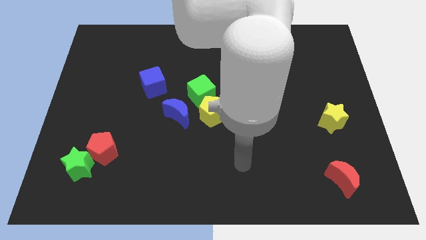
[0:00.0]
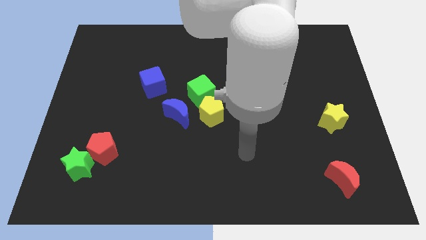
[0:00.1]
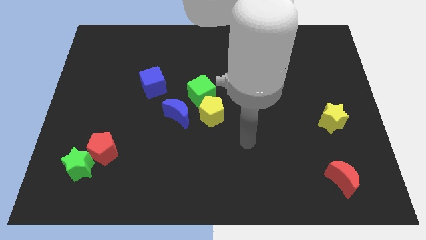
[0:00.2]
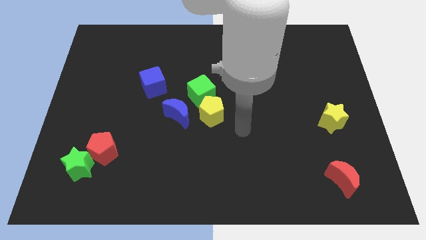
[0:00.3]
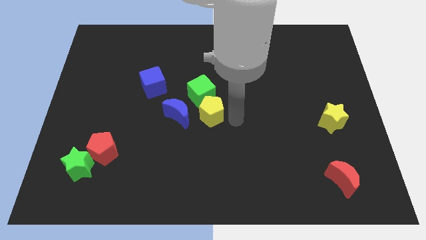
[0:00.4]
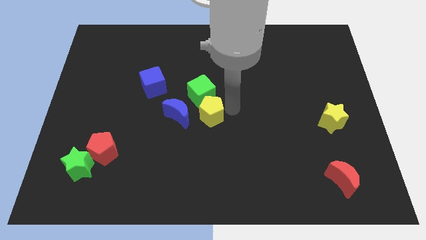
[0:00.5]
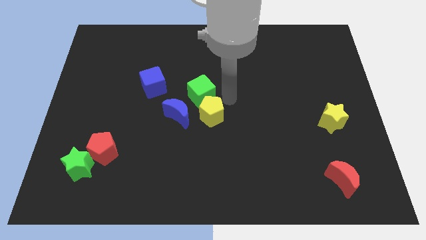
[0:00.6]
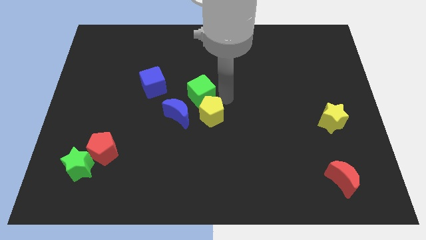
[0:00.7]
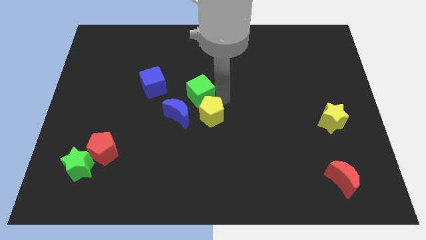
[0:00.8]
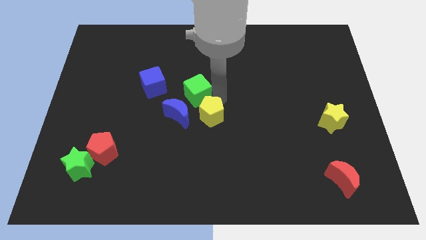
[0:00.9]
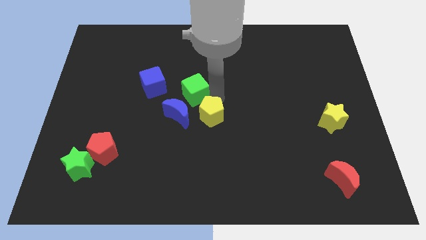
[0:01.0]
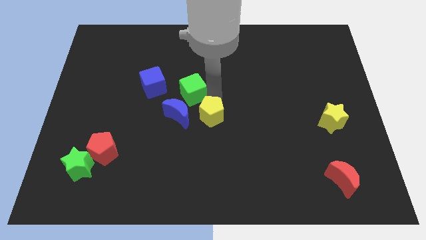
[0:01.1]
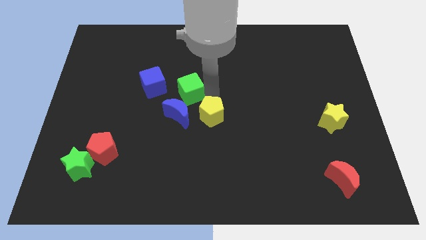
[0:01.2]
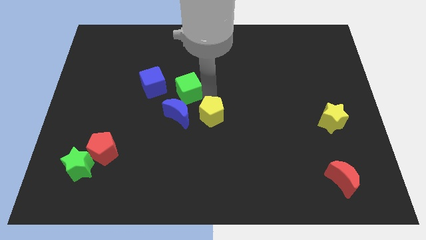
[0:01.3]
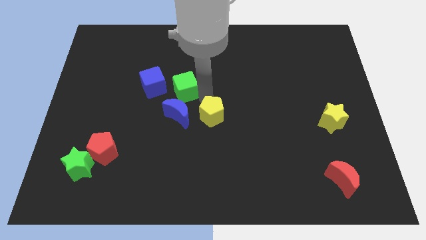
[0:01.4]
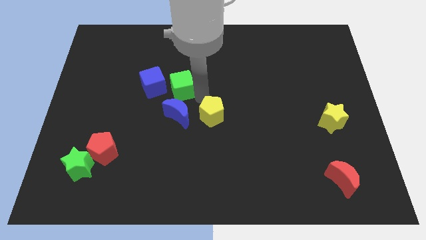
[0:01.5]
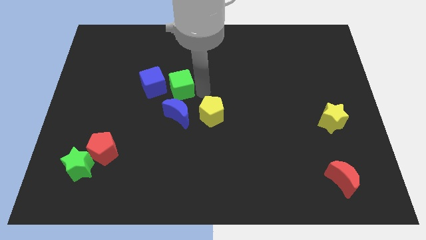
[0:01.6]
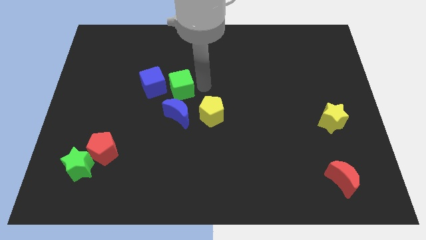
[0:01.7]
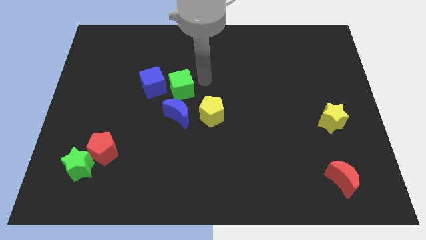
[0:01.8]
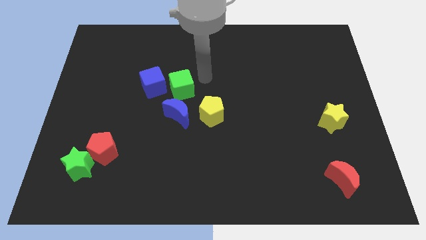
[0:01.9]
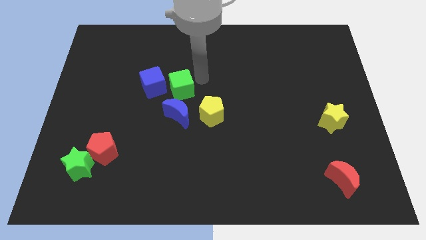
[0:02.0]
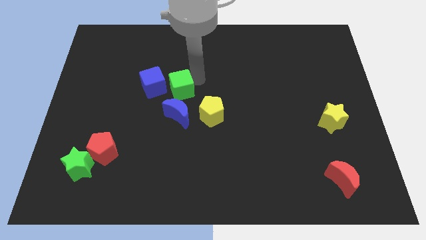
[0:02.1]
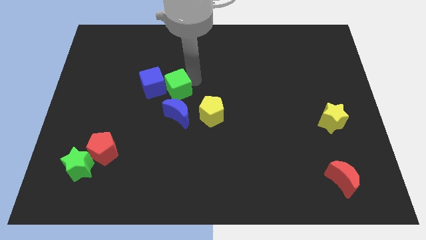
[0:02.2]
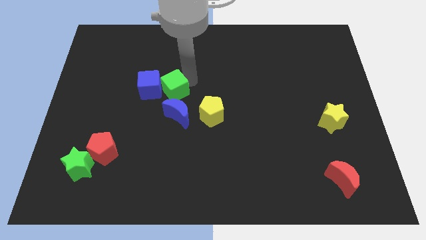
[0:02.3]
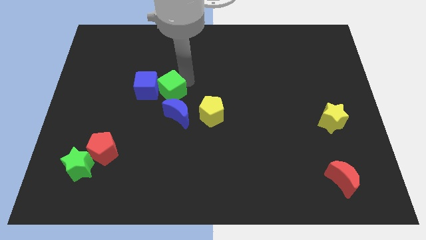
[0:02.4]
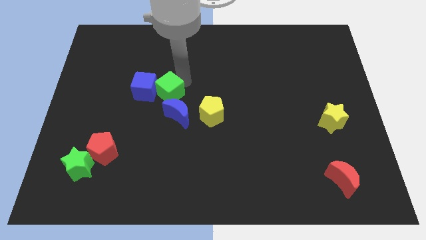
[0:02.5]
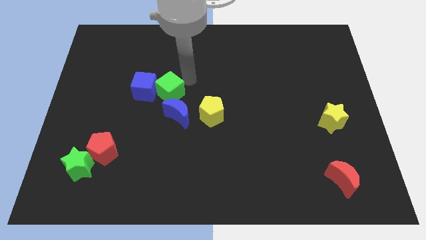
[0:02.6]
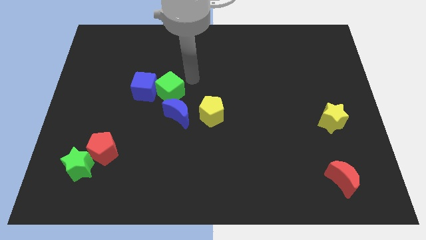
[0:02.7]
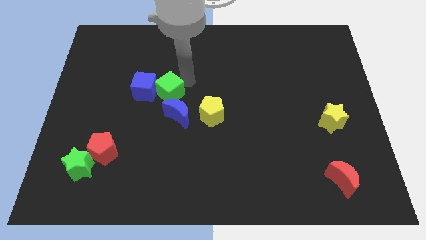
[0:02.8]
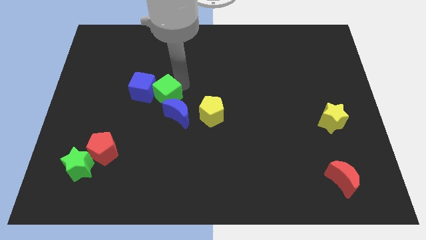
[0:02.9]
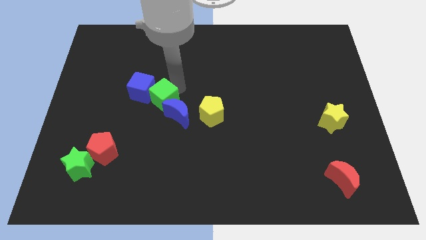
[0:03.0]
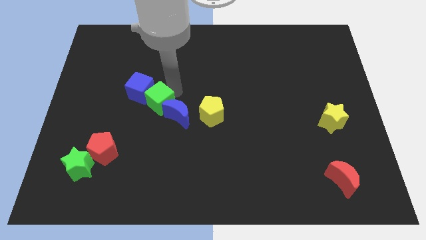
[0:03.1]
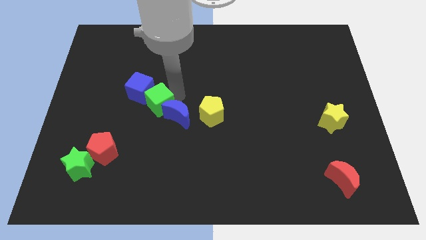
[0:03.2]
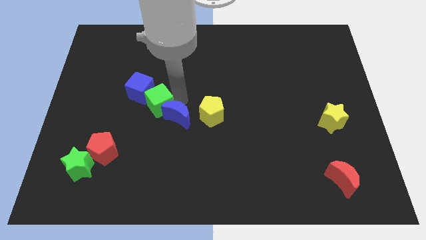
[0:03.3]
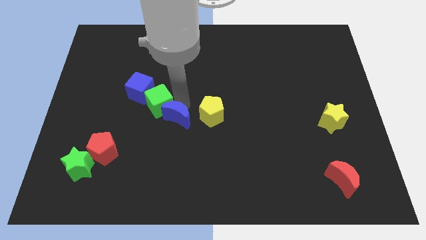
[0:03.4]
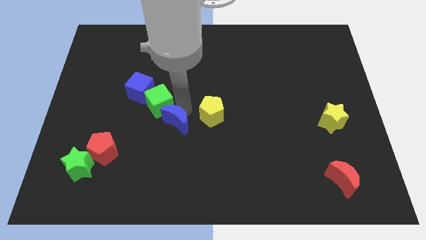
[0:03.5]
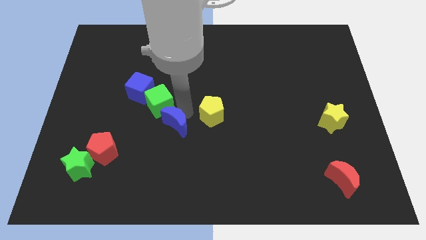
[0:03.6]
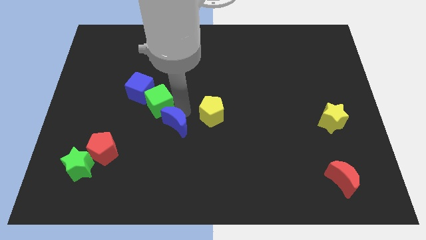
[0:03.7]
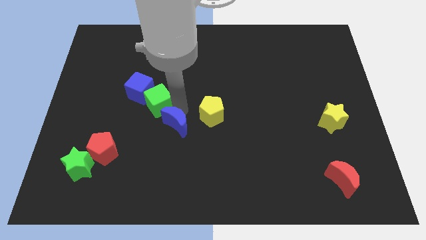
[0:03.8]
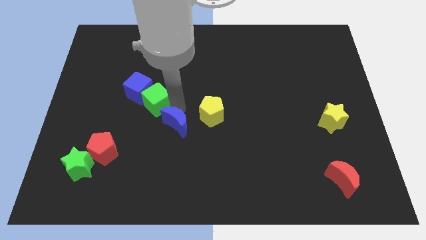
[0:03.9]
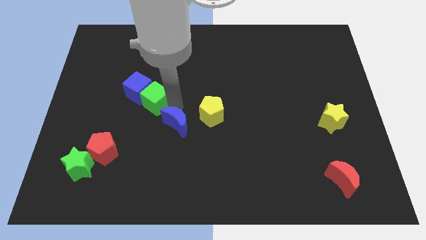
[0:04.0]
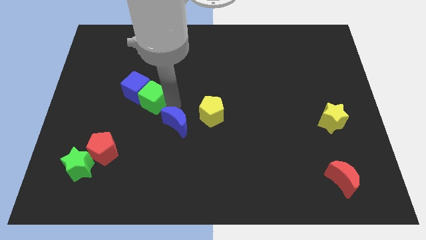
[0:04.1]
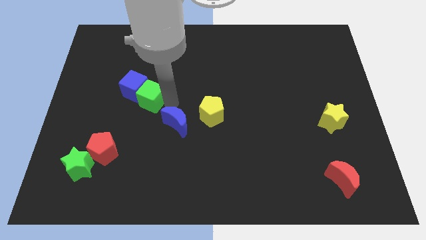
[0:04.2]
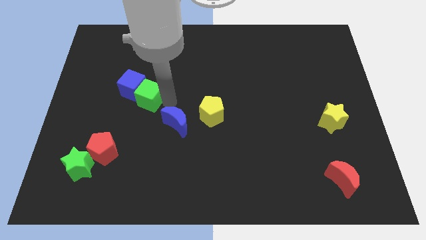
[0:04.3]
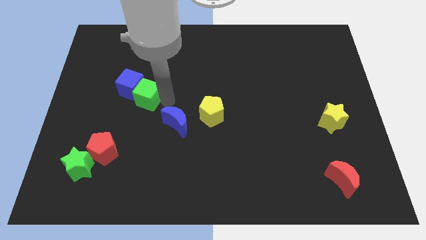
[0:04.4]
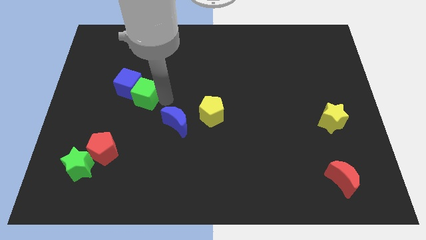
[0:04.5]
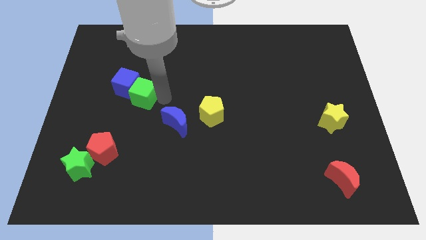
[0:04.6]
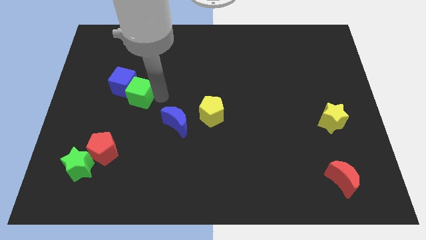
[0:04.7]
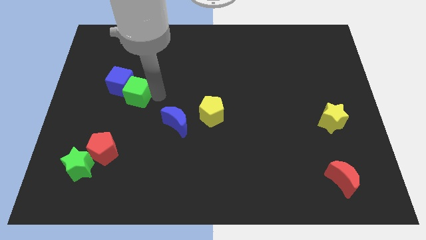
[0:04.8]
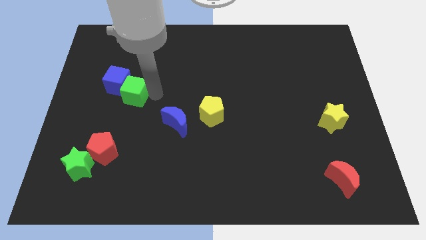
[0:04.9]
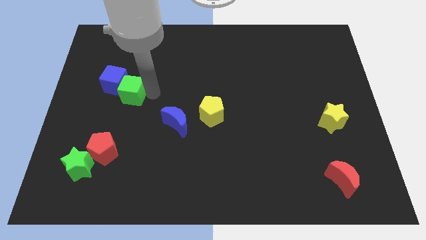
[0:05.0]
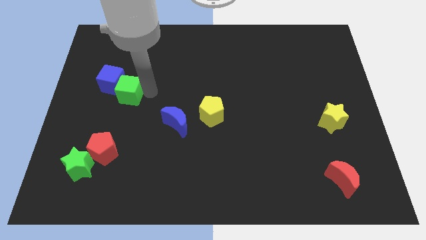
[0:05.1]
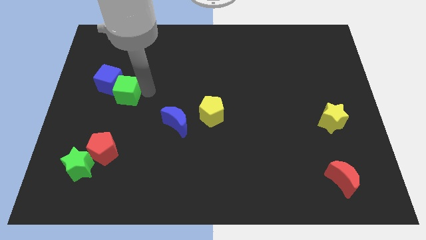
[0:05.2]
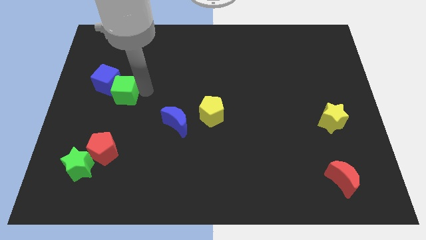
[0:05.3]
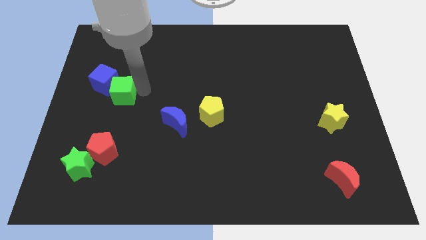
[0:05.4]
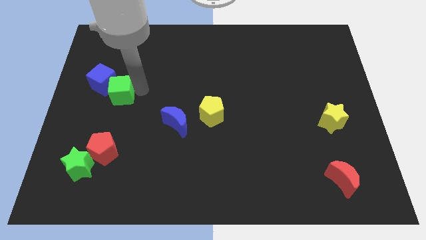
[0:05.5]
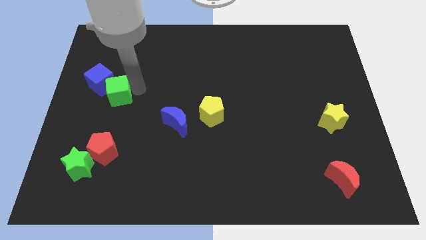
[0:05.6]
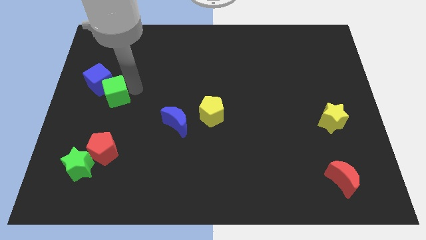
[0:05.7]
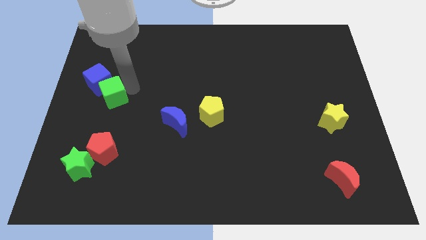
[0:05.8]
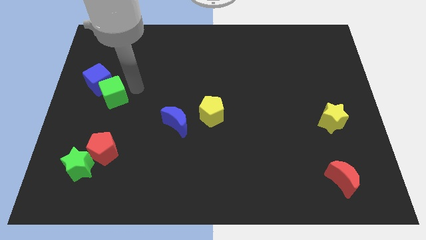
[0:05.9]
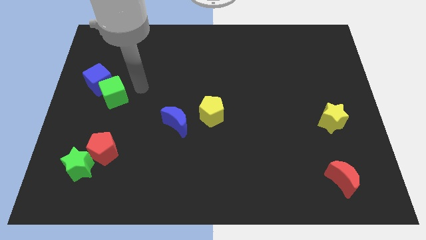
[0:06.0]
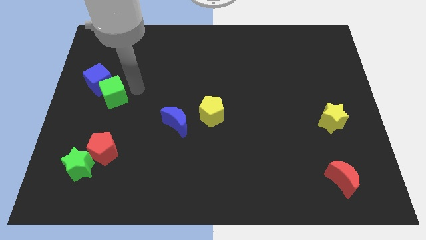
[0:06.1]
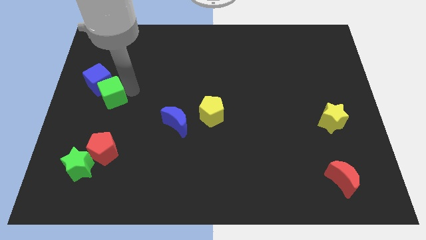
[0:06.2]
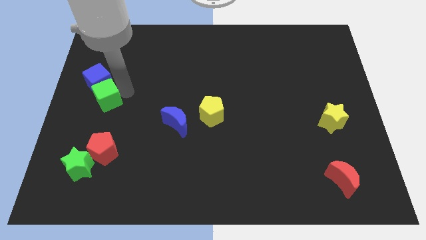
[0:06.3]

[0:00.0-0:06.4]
slide the green cube to the left side
